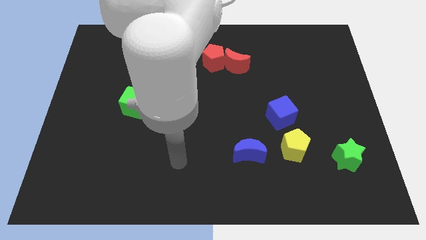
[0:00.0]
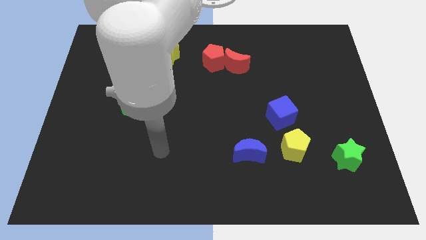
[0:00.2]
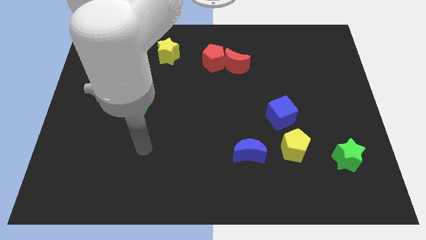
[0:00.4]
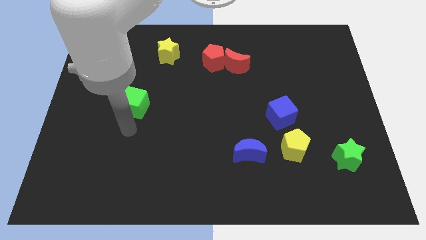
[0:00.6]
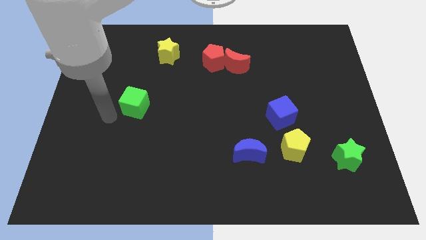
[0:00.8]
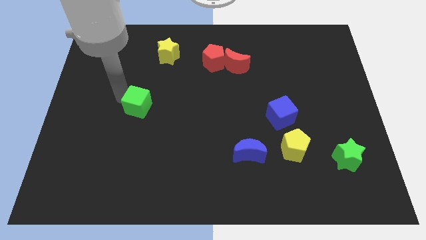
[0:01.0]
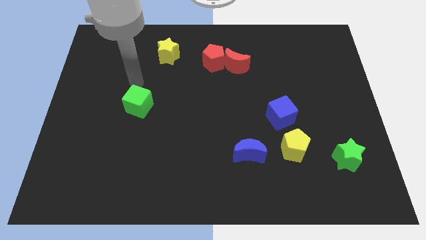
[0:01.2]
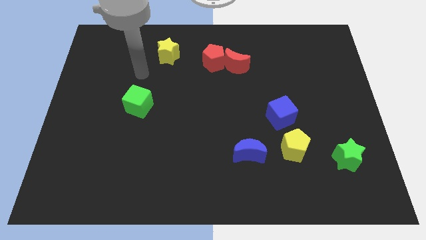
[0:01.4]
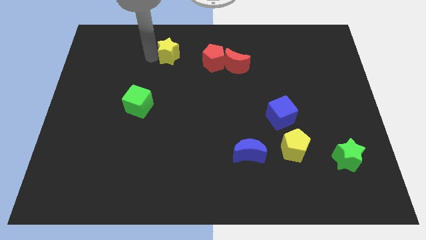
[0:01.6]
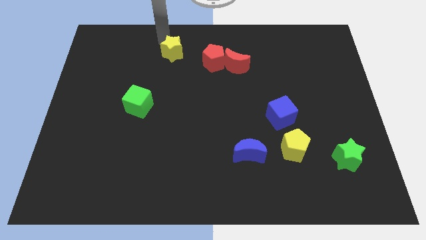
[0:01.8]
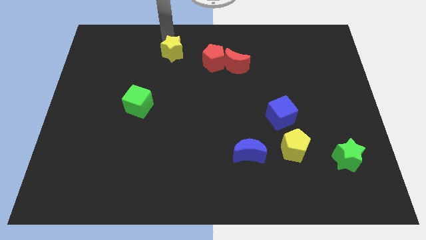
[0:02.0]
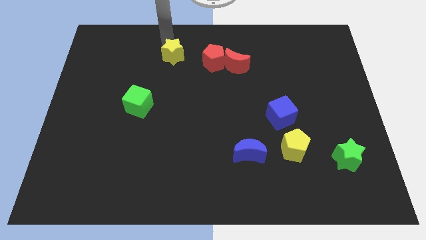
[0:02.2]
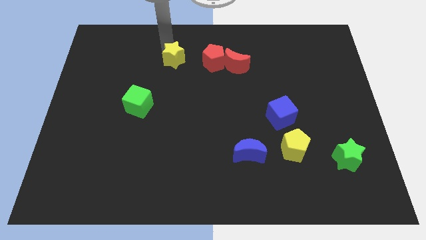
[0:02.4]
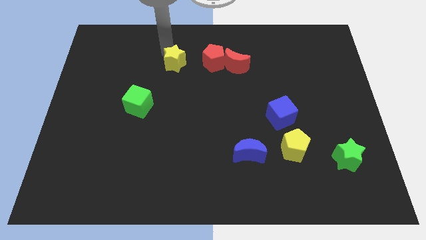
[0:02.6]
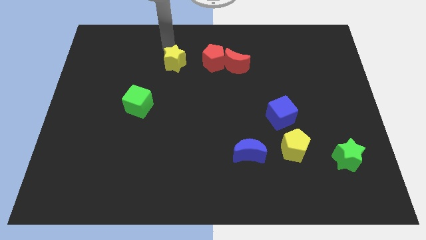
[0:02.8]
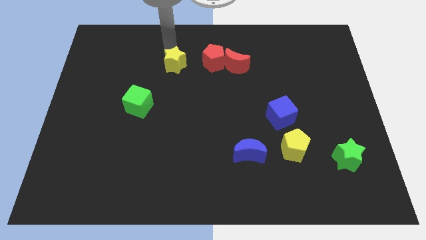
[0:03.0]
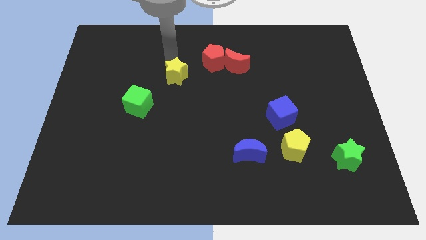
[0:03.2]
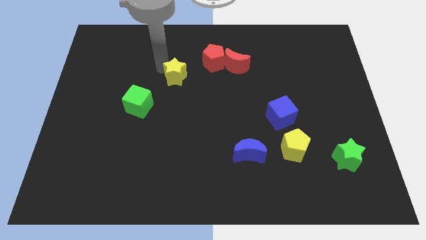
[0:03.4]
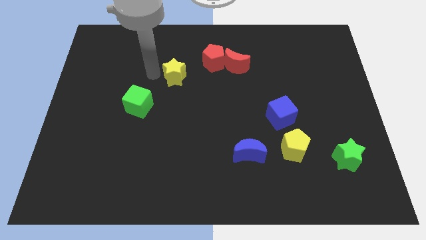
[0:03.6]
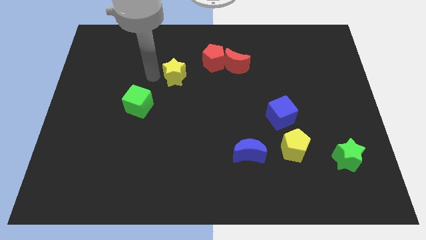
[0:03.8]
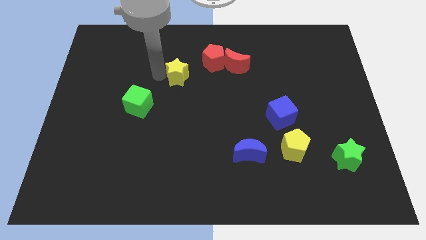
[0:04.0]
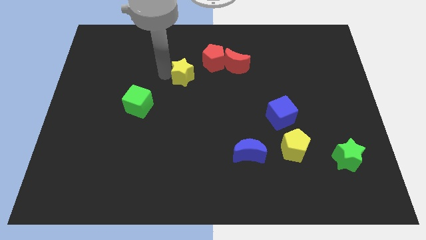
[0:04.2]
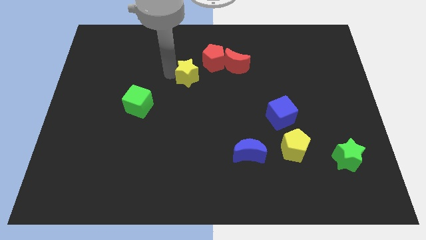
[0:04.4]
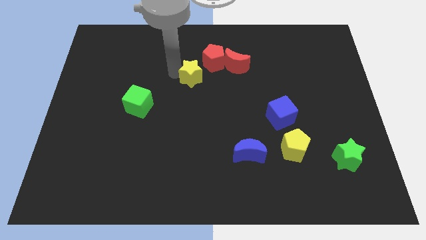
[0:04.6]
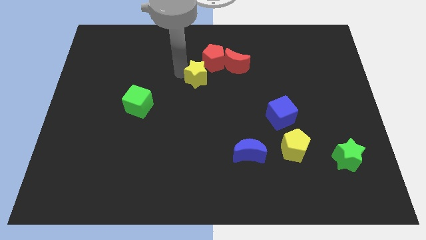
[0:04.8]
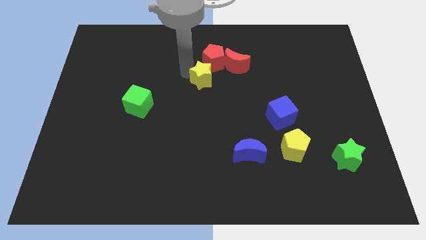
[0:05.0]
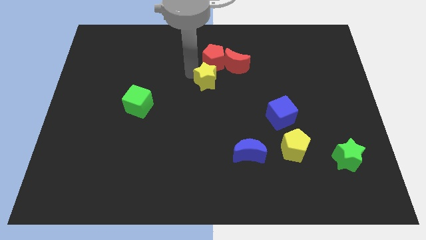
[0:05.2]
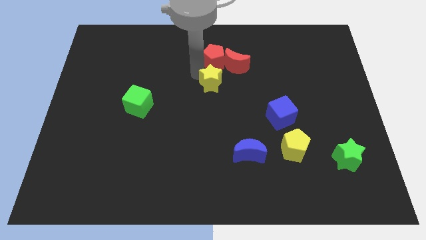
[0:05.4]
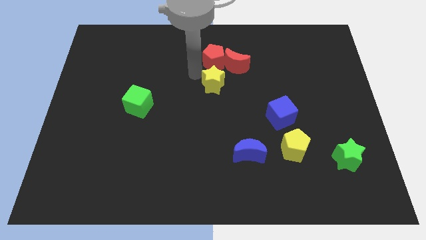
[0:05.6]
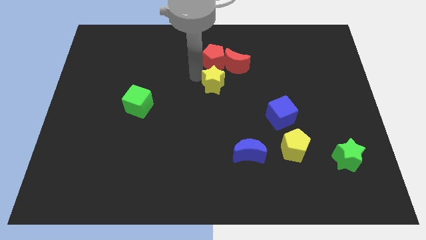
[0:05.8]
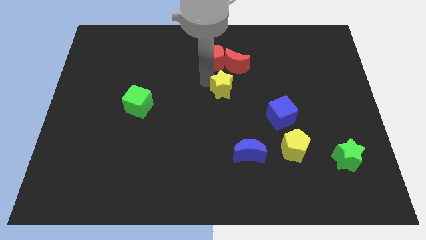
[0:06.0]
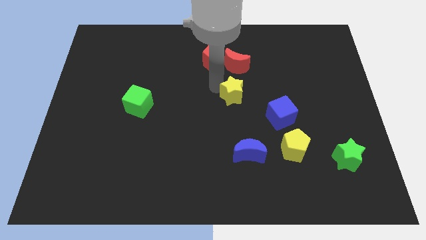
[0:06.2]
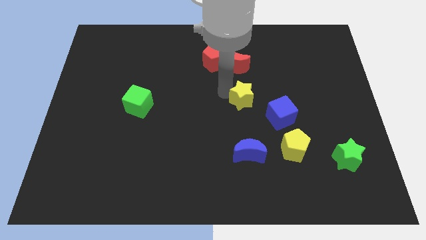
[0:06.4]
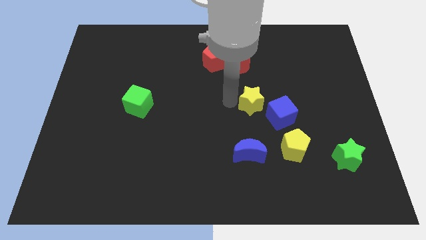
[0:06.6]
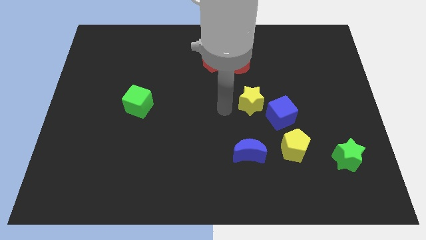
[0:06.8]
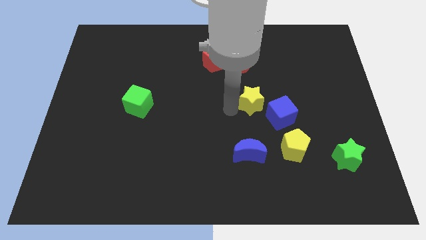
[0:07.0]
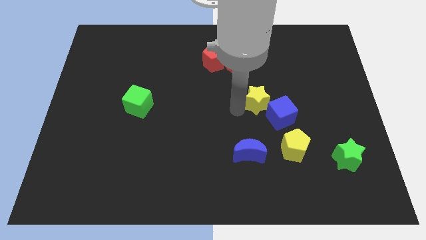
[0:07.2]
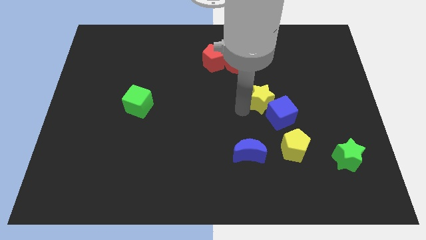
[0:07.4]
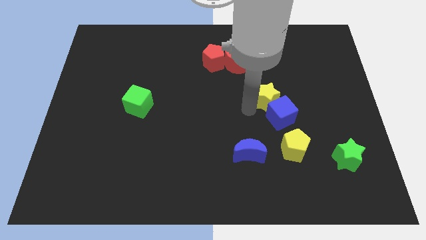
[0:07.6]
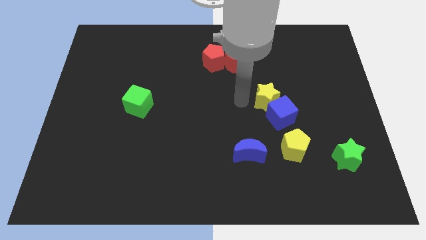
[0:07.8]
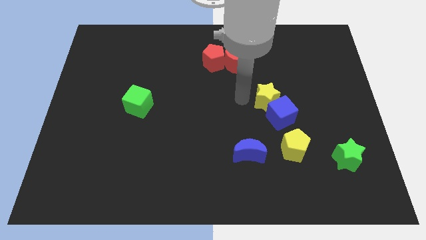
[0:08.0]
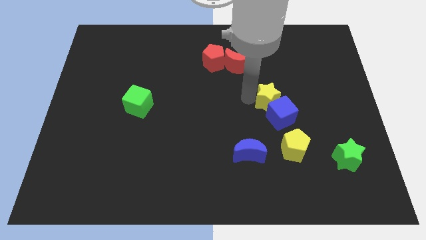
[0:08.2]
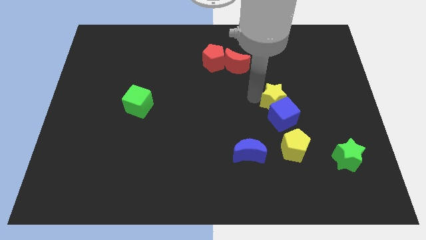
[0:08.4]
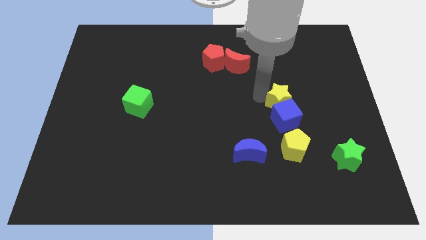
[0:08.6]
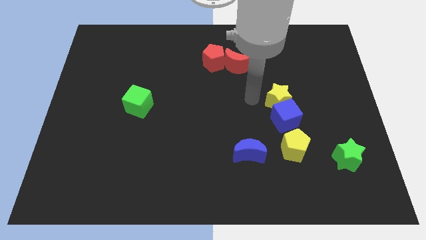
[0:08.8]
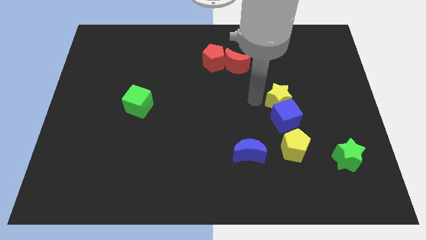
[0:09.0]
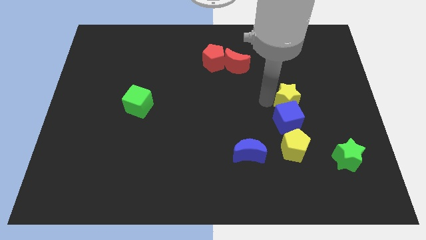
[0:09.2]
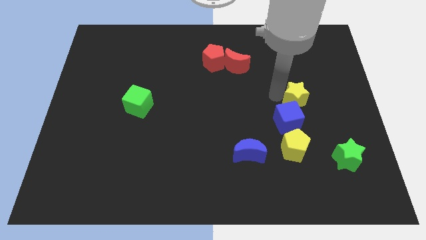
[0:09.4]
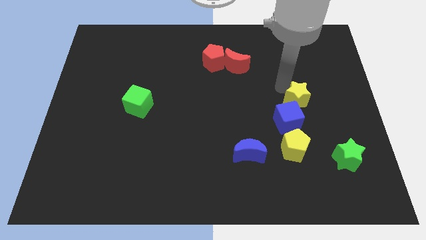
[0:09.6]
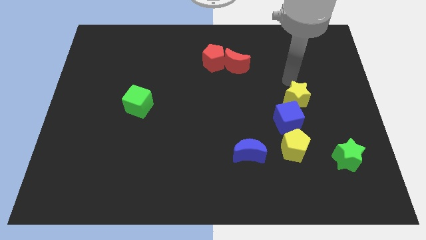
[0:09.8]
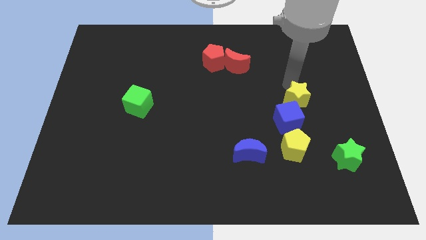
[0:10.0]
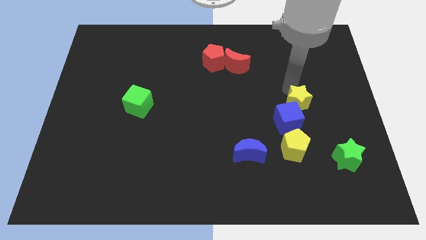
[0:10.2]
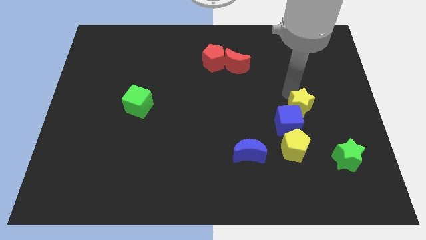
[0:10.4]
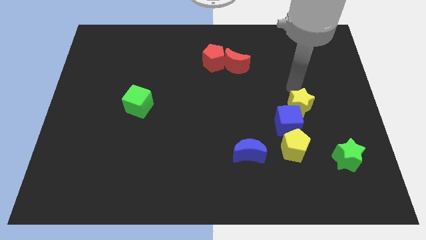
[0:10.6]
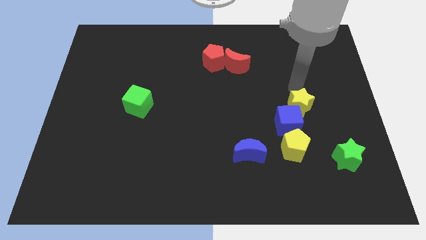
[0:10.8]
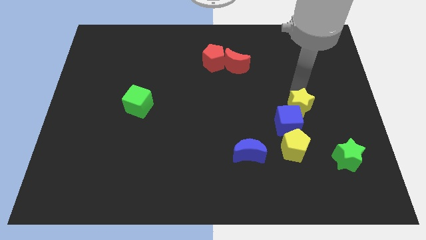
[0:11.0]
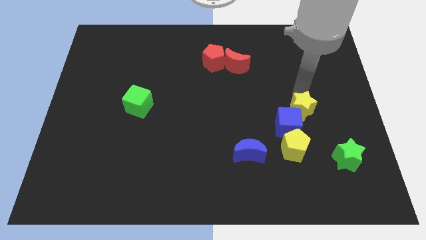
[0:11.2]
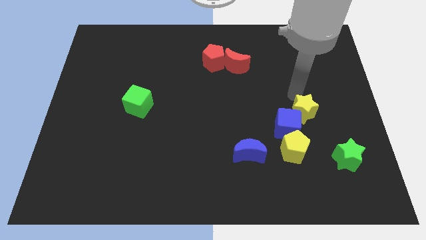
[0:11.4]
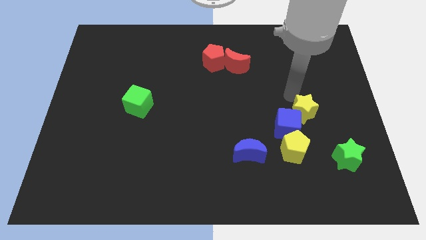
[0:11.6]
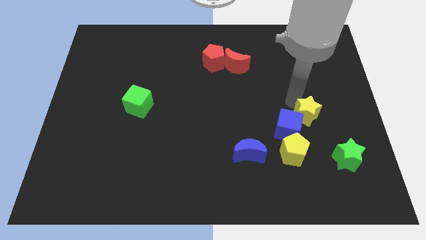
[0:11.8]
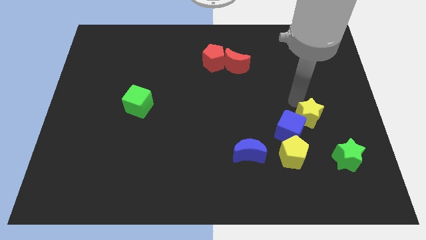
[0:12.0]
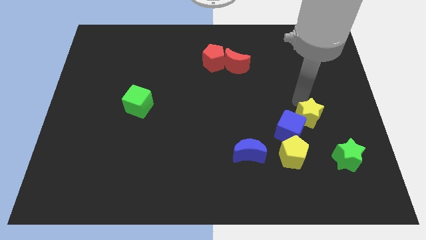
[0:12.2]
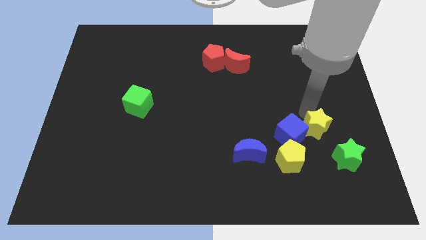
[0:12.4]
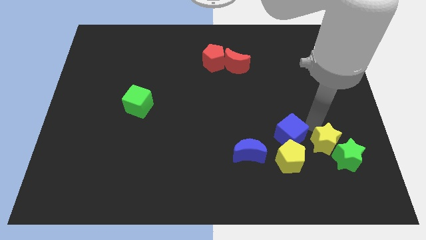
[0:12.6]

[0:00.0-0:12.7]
put the yellow star towards the green star

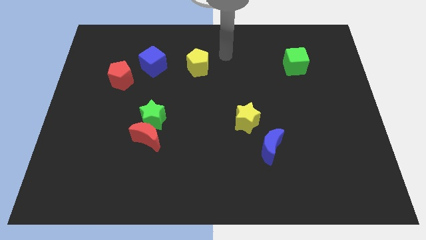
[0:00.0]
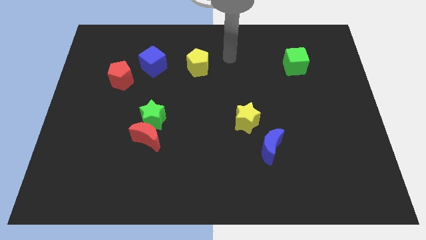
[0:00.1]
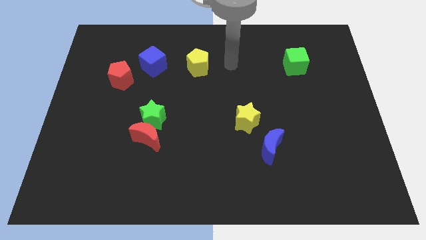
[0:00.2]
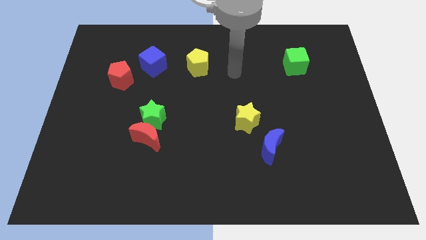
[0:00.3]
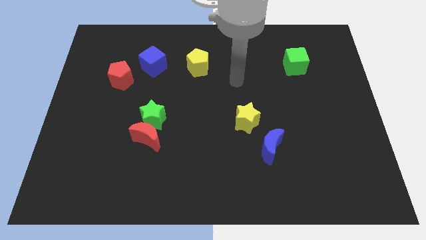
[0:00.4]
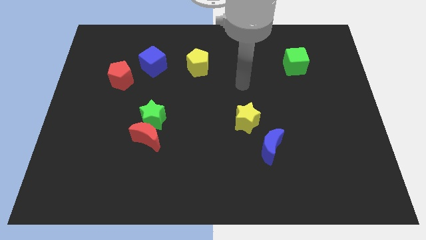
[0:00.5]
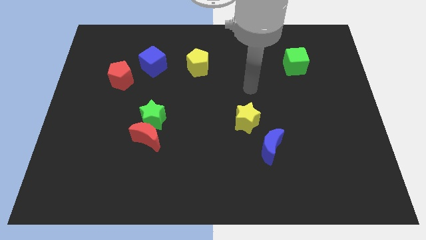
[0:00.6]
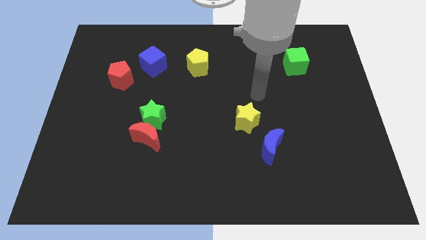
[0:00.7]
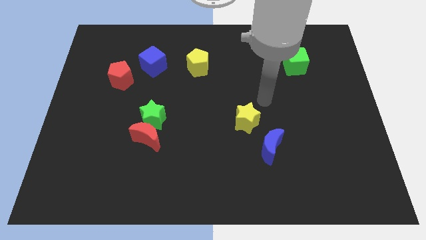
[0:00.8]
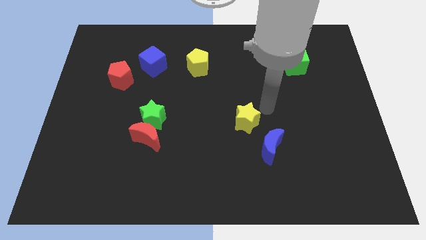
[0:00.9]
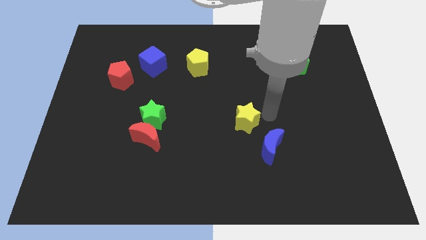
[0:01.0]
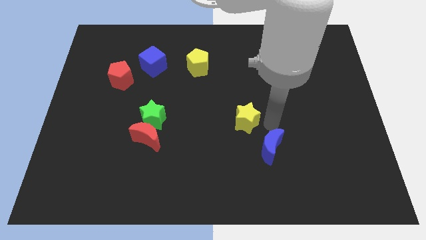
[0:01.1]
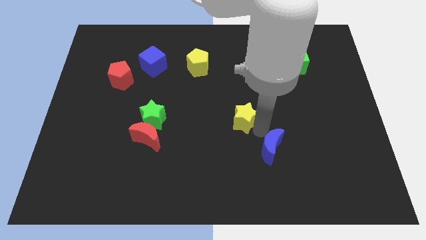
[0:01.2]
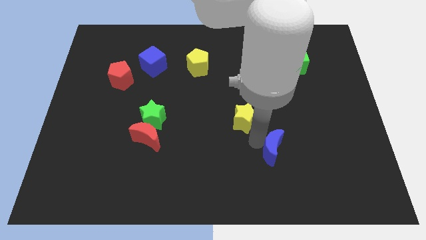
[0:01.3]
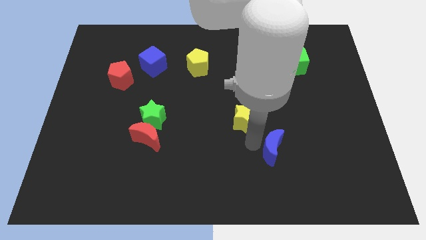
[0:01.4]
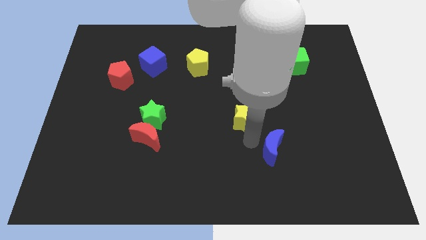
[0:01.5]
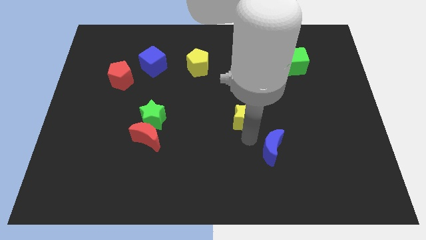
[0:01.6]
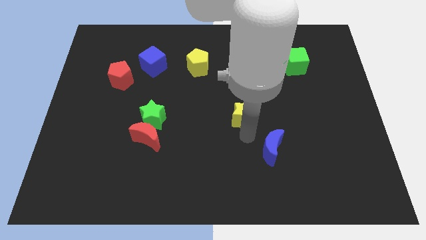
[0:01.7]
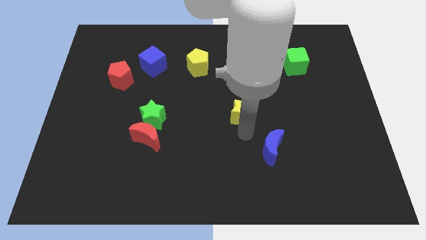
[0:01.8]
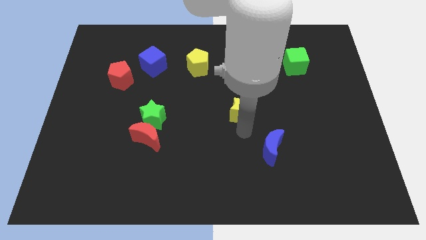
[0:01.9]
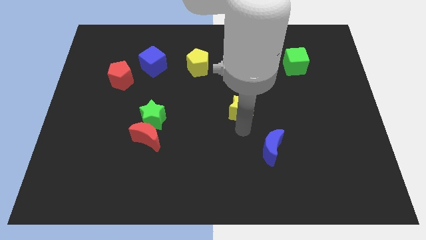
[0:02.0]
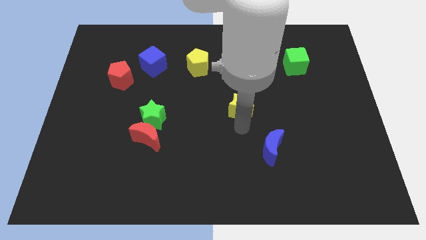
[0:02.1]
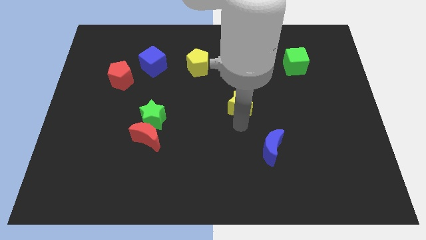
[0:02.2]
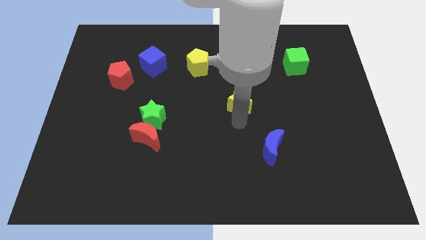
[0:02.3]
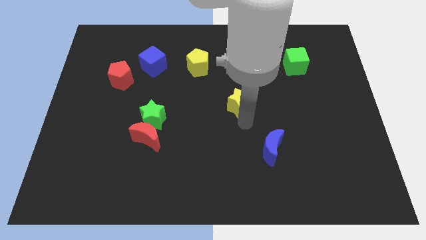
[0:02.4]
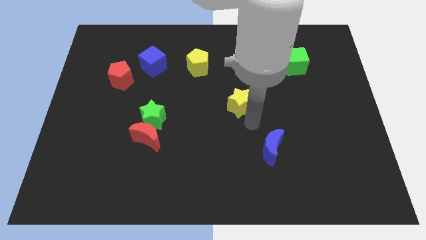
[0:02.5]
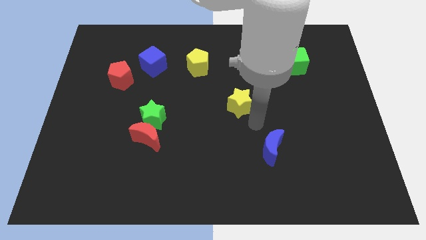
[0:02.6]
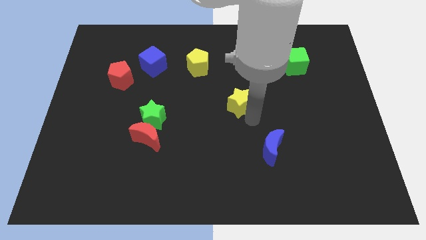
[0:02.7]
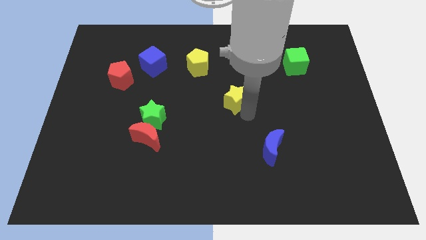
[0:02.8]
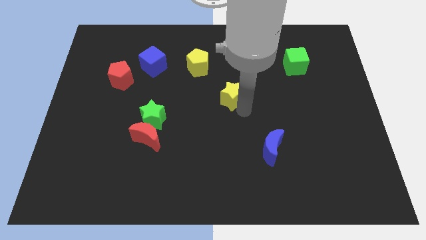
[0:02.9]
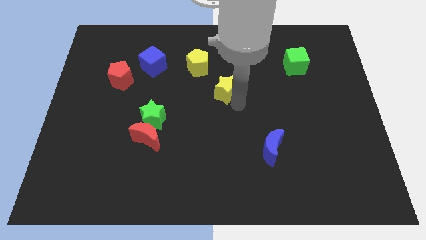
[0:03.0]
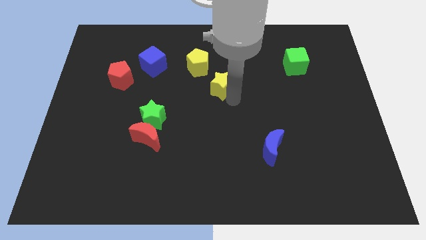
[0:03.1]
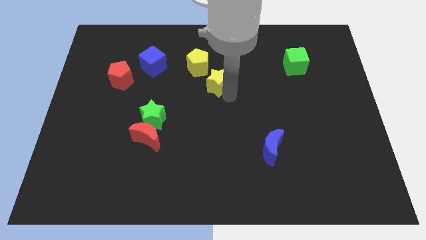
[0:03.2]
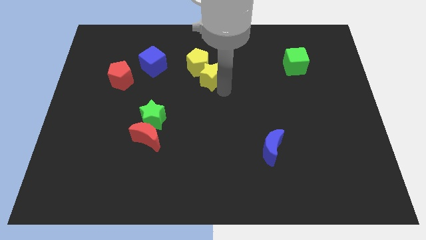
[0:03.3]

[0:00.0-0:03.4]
move the yellow star towards the yellow pentagon
